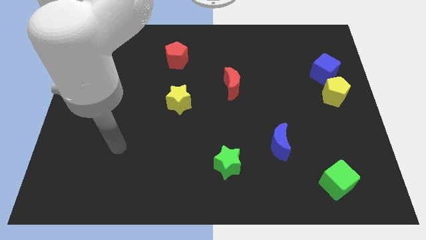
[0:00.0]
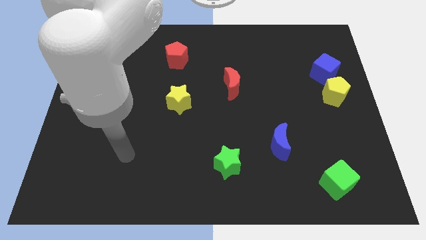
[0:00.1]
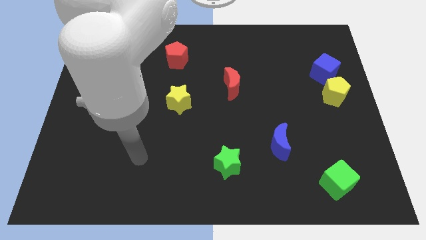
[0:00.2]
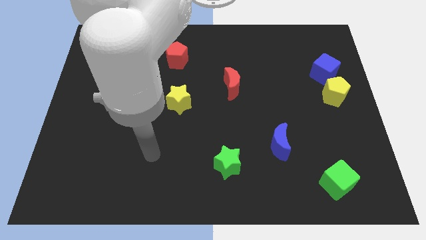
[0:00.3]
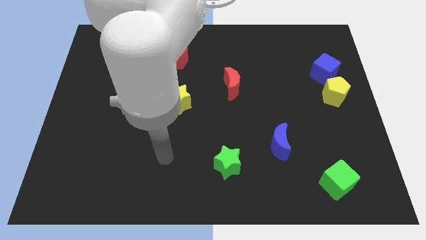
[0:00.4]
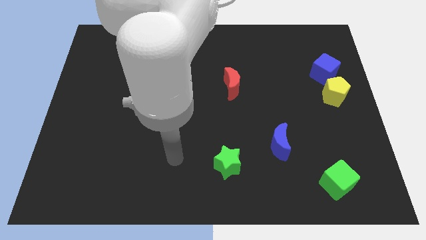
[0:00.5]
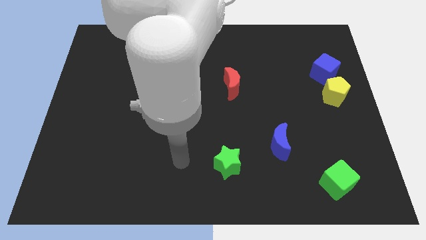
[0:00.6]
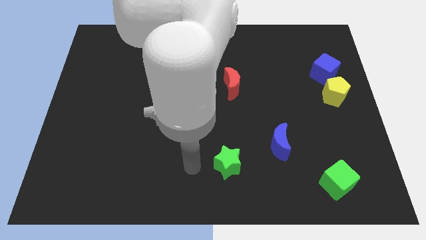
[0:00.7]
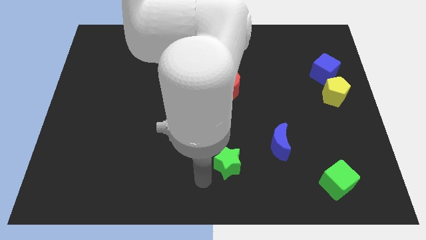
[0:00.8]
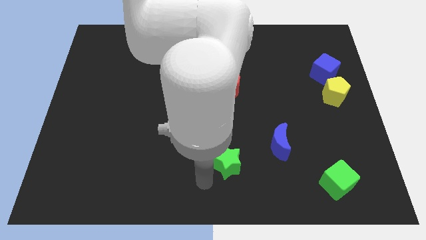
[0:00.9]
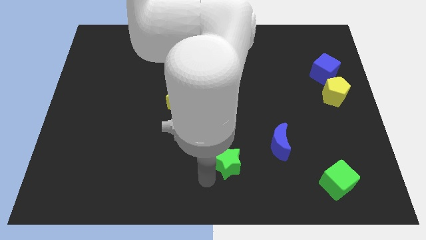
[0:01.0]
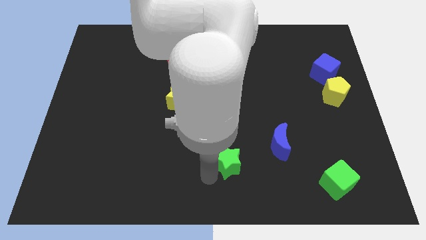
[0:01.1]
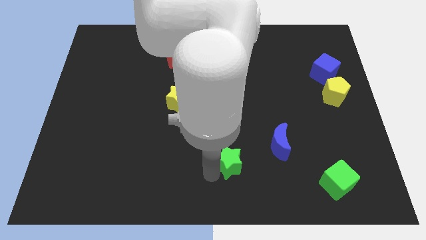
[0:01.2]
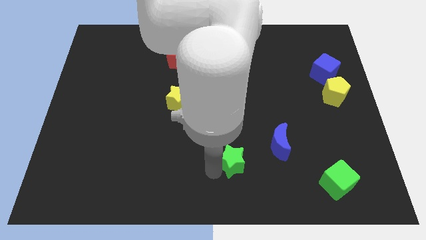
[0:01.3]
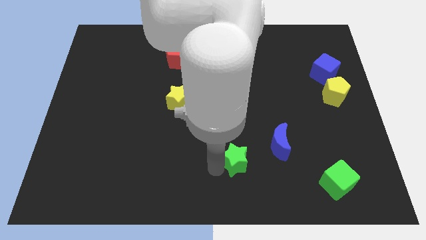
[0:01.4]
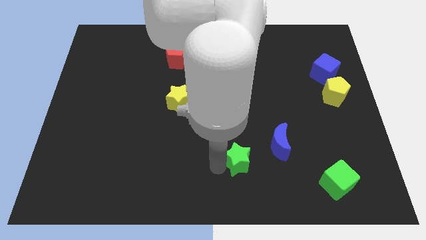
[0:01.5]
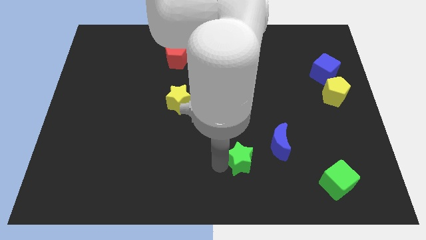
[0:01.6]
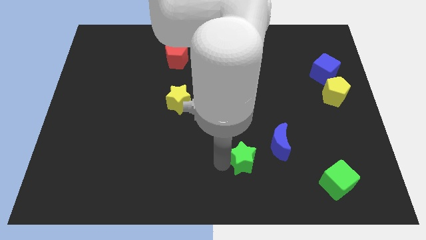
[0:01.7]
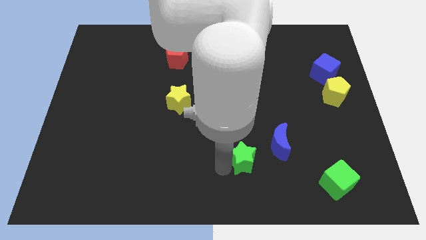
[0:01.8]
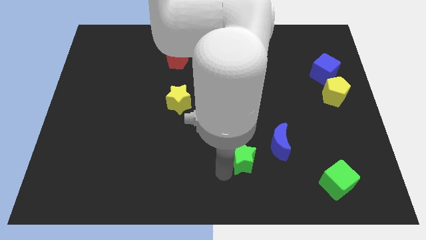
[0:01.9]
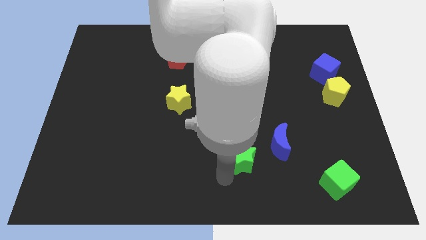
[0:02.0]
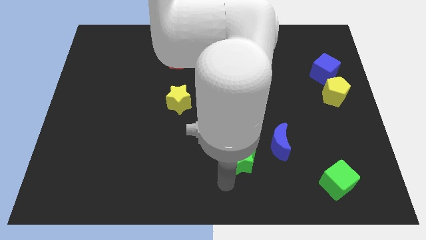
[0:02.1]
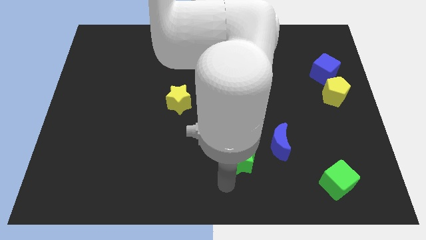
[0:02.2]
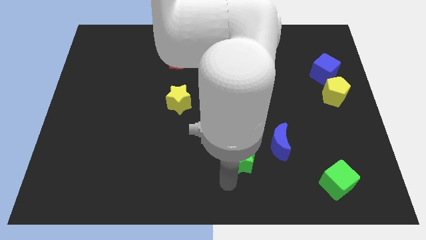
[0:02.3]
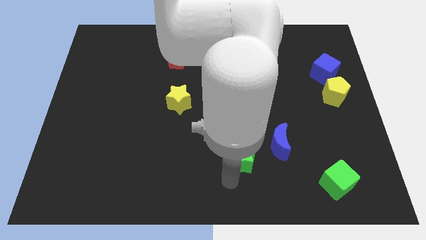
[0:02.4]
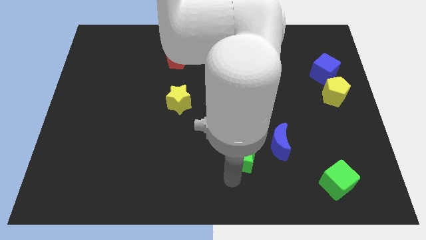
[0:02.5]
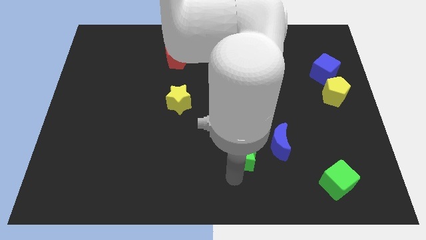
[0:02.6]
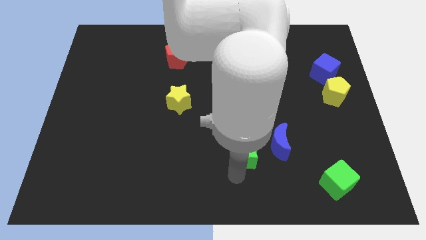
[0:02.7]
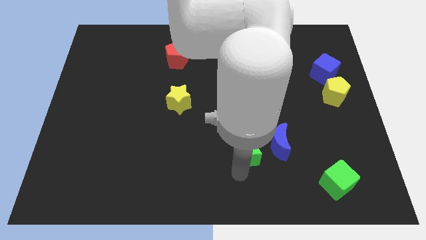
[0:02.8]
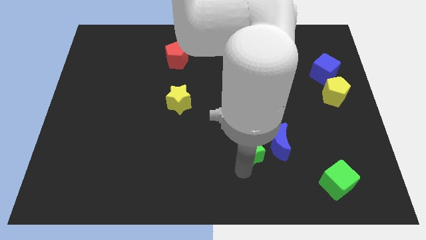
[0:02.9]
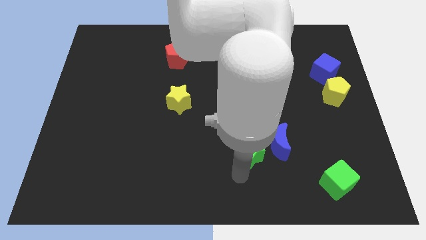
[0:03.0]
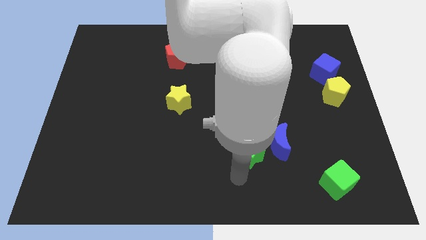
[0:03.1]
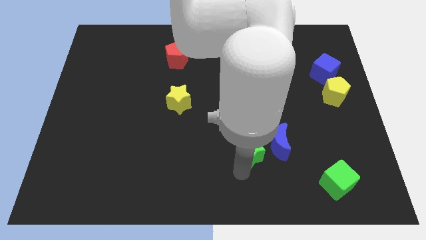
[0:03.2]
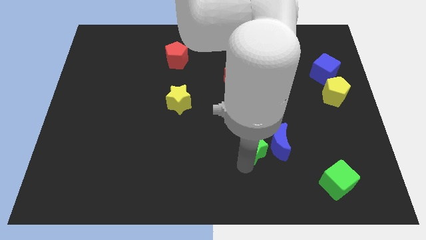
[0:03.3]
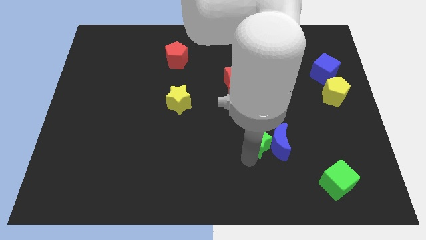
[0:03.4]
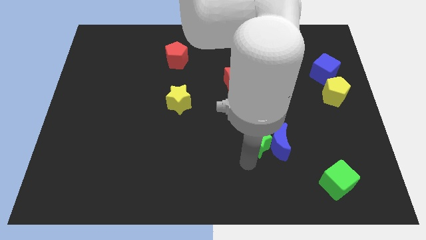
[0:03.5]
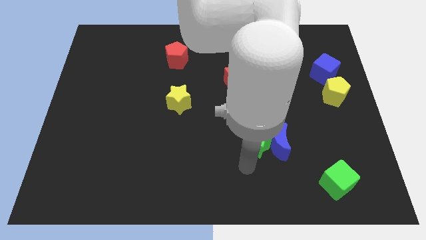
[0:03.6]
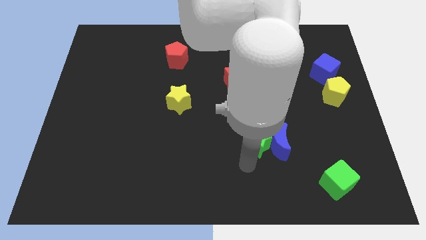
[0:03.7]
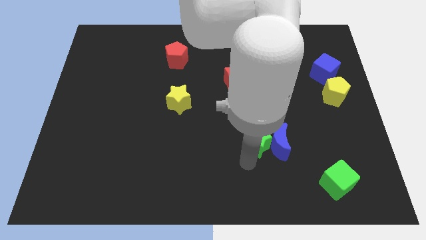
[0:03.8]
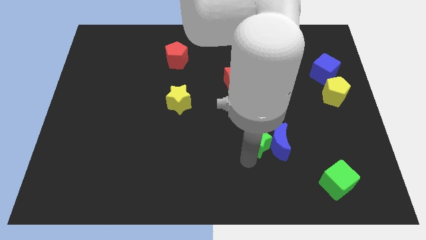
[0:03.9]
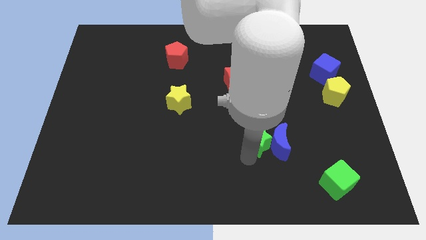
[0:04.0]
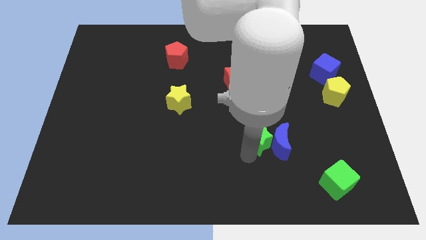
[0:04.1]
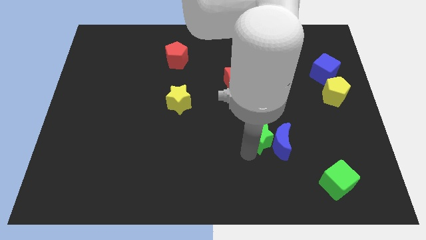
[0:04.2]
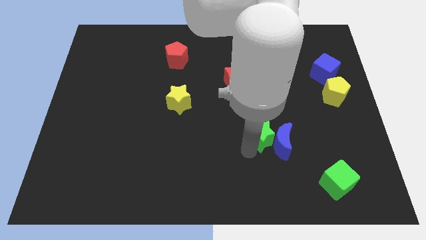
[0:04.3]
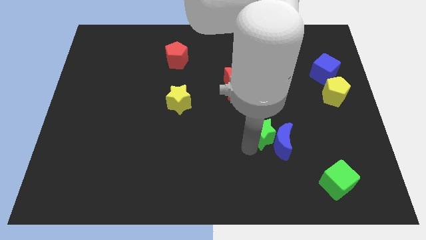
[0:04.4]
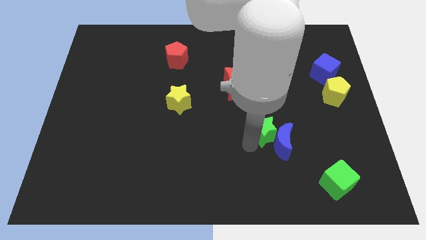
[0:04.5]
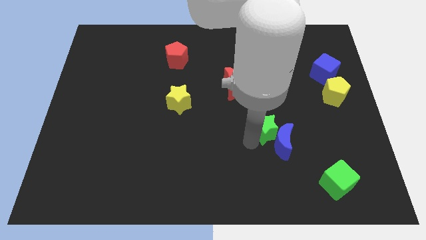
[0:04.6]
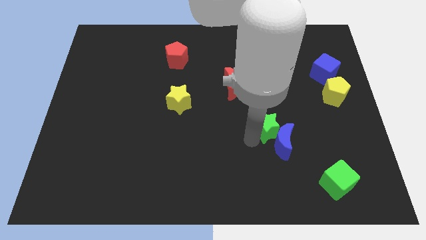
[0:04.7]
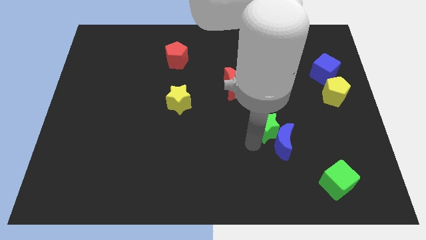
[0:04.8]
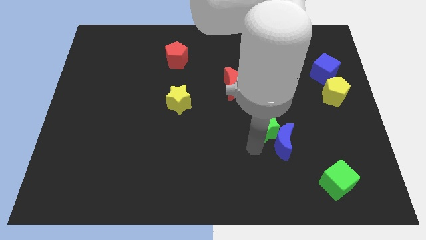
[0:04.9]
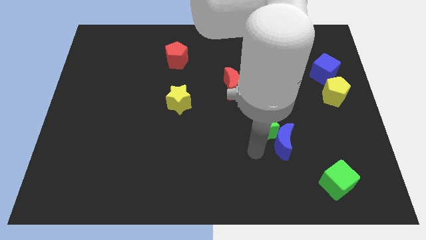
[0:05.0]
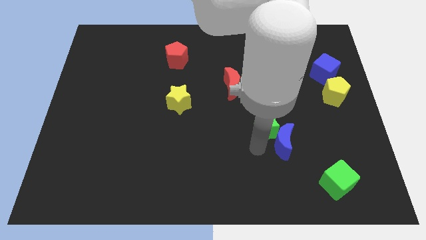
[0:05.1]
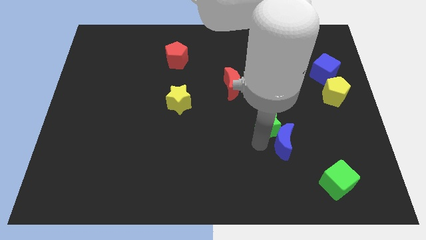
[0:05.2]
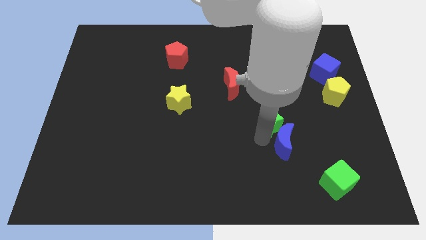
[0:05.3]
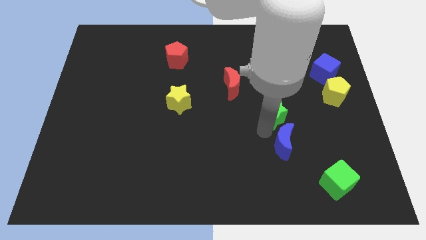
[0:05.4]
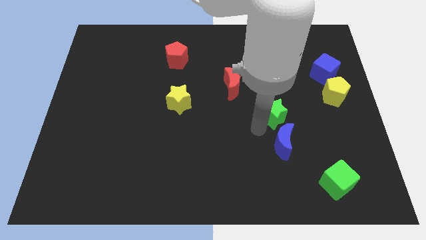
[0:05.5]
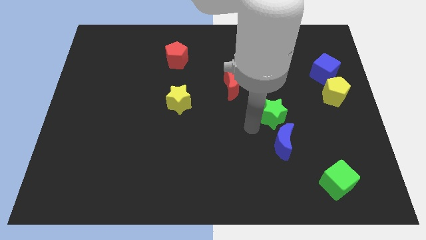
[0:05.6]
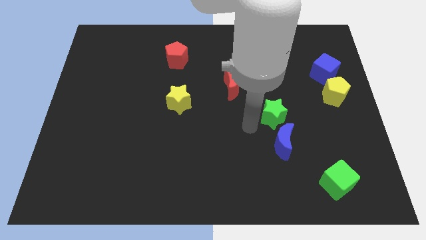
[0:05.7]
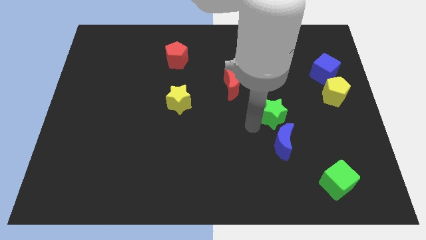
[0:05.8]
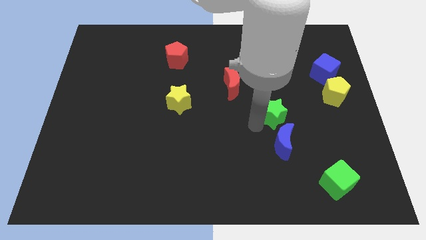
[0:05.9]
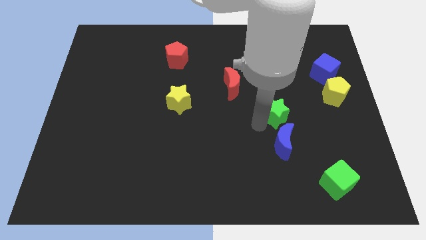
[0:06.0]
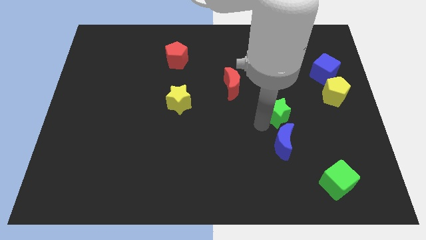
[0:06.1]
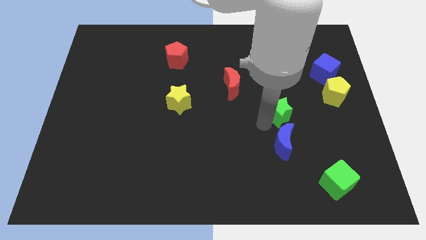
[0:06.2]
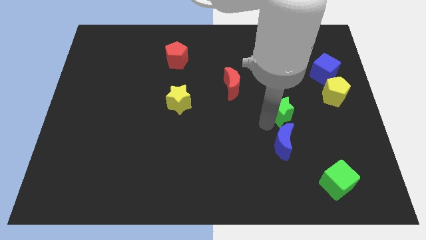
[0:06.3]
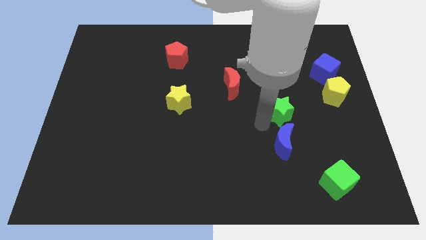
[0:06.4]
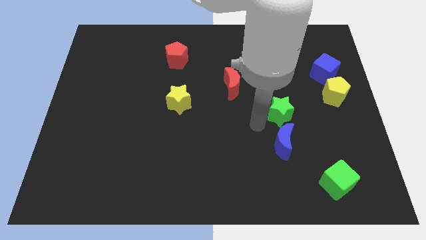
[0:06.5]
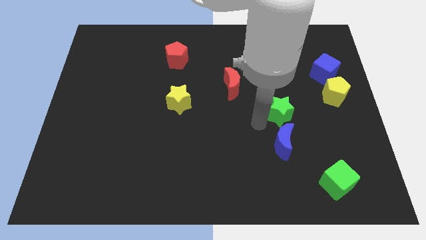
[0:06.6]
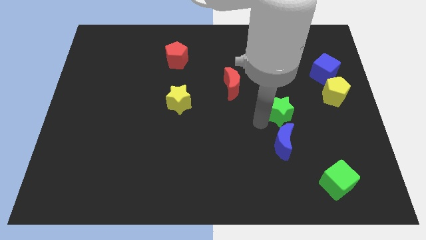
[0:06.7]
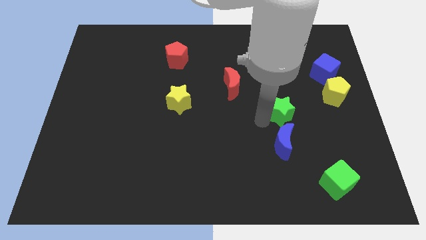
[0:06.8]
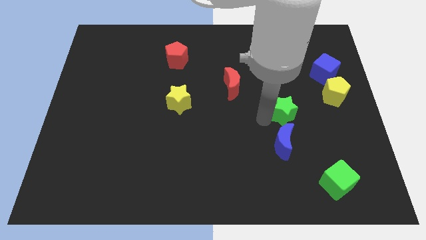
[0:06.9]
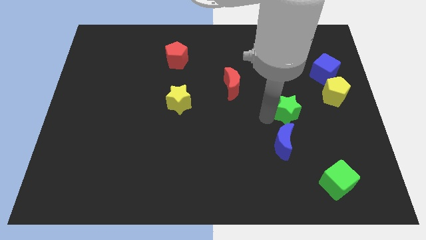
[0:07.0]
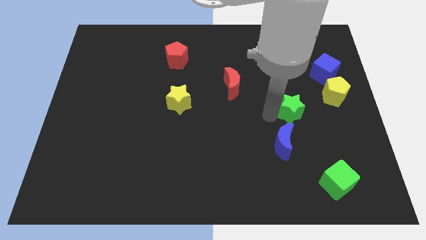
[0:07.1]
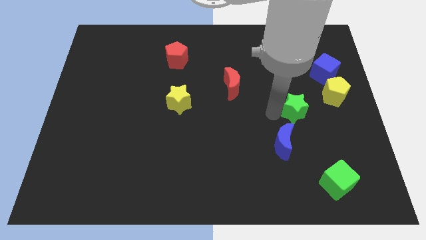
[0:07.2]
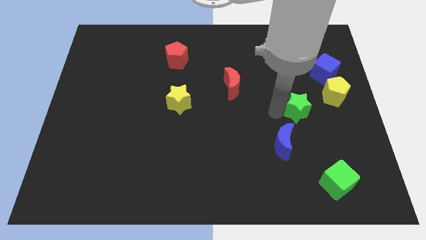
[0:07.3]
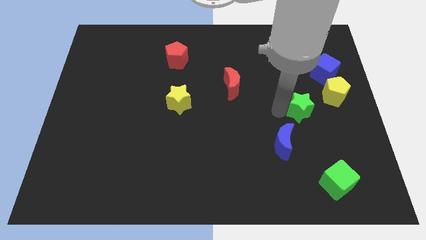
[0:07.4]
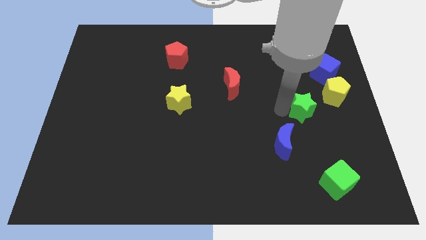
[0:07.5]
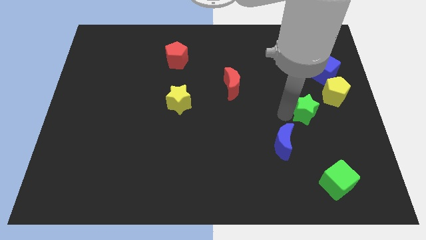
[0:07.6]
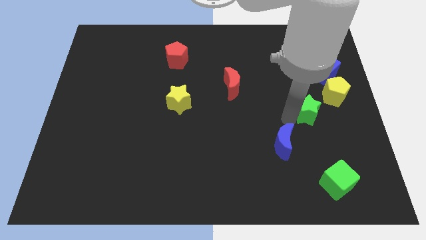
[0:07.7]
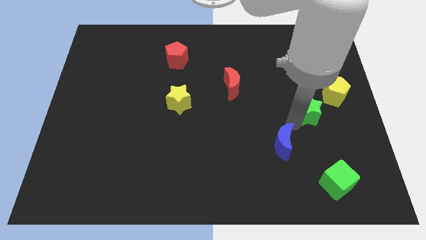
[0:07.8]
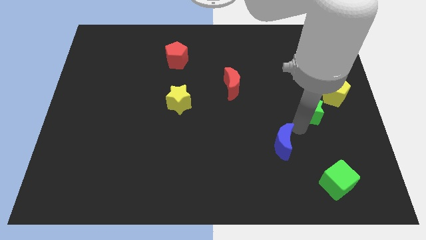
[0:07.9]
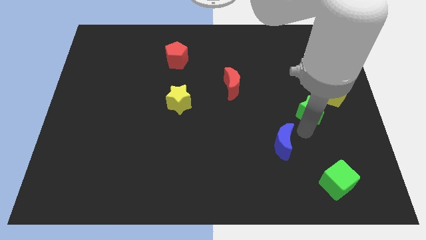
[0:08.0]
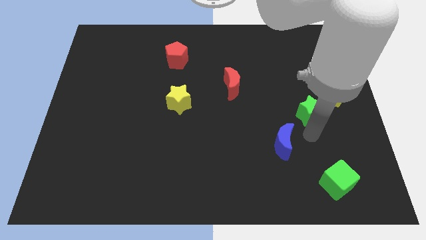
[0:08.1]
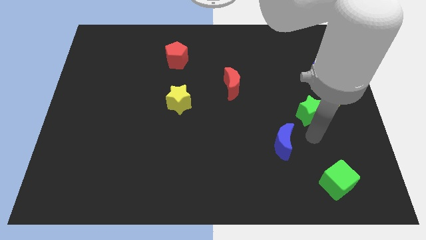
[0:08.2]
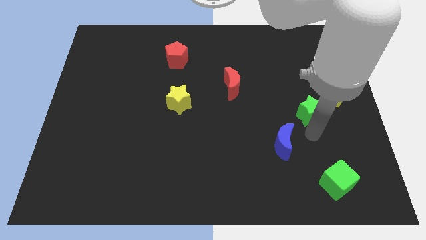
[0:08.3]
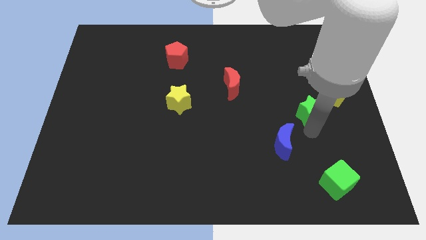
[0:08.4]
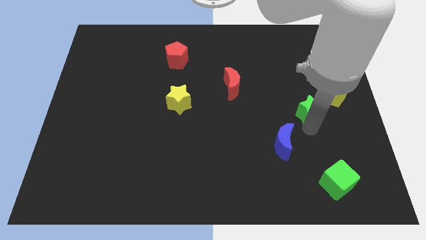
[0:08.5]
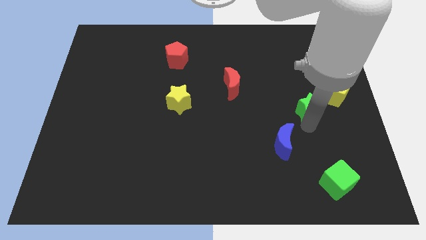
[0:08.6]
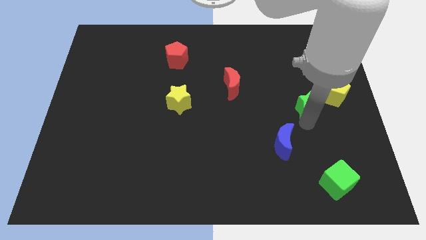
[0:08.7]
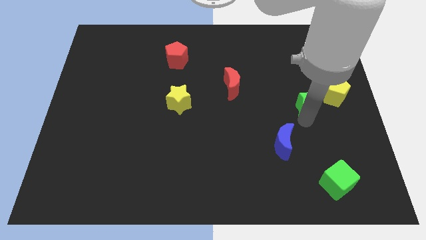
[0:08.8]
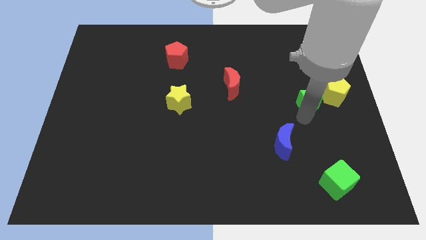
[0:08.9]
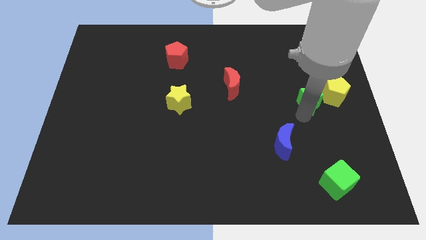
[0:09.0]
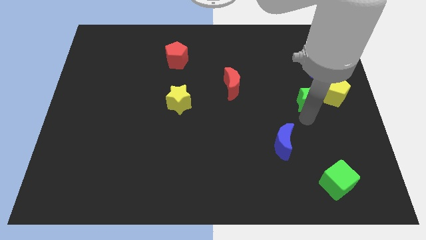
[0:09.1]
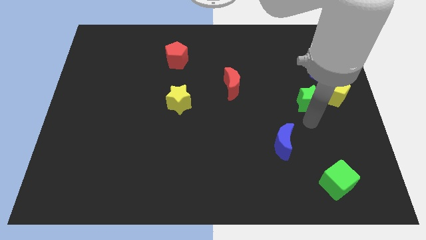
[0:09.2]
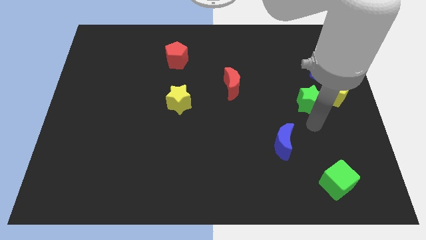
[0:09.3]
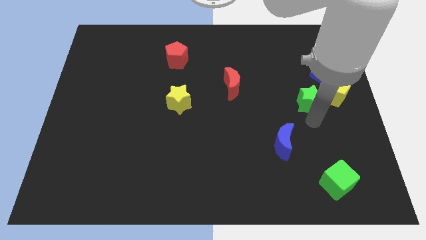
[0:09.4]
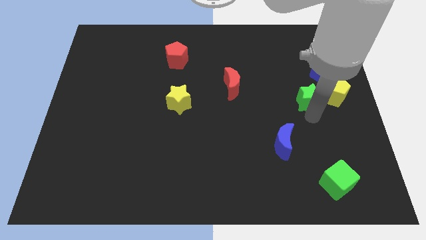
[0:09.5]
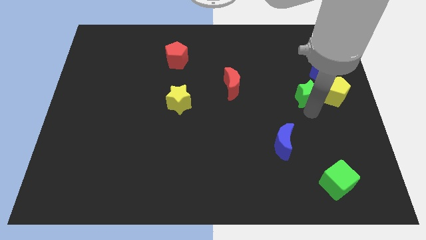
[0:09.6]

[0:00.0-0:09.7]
slide the green star diagonally up and to the left of the yellow pentagon
